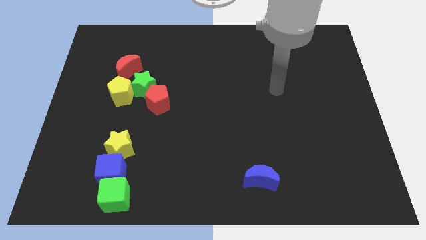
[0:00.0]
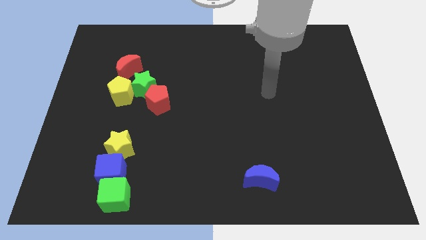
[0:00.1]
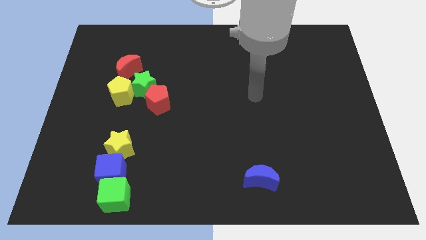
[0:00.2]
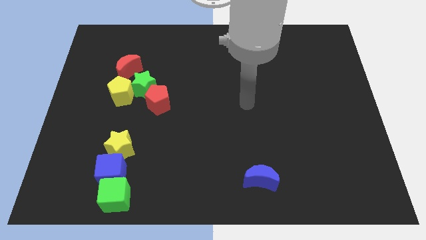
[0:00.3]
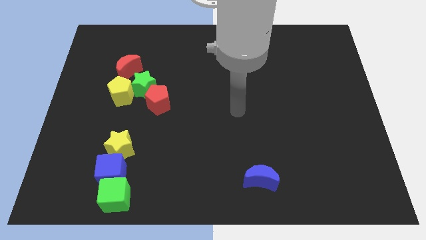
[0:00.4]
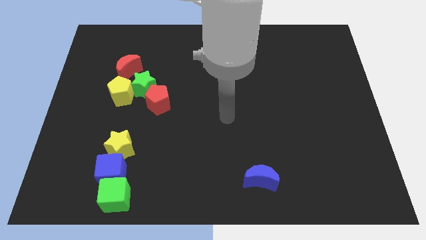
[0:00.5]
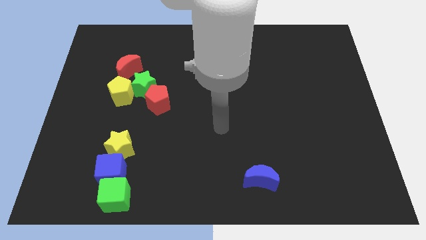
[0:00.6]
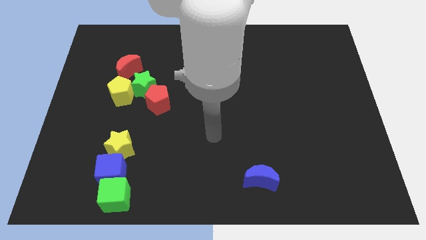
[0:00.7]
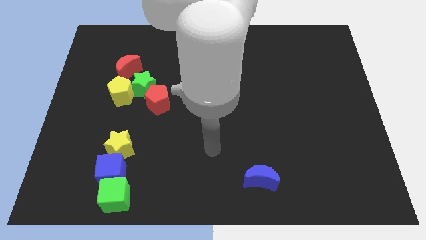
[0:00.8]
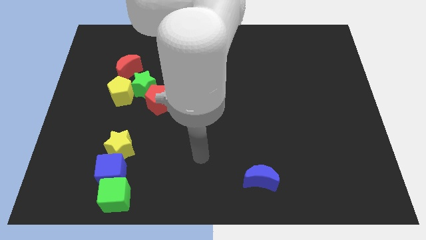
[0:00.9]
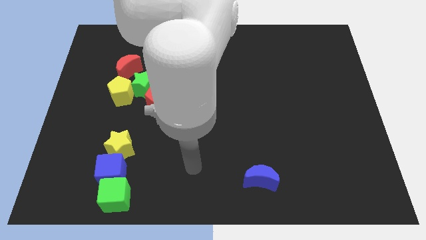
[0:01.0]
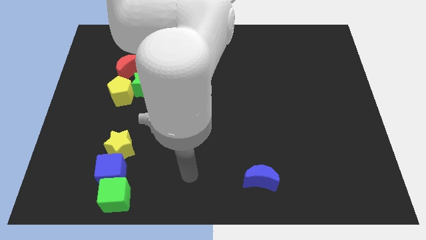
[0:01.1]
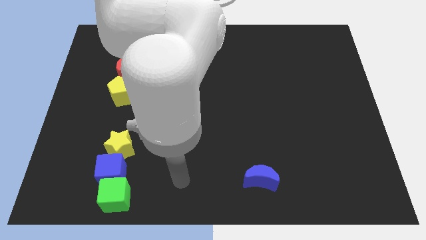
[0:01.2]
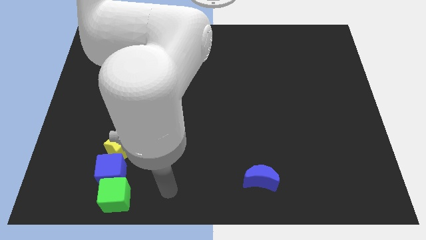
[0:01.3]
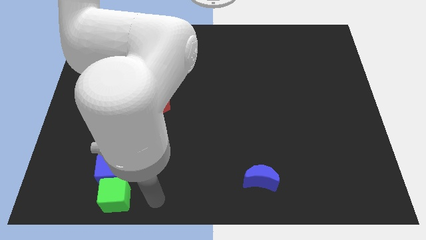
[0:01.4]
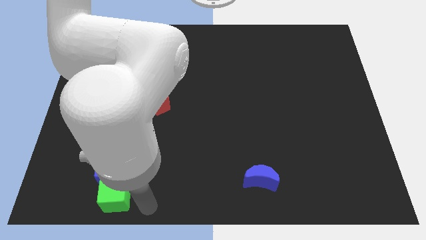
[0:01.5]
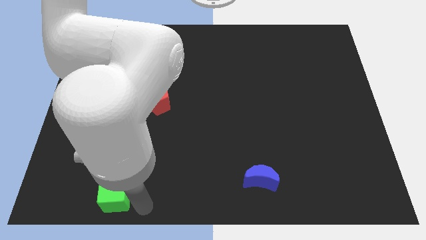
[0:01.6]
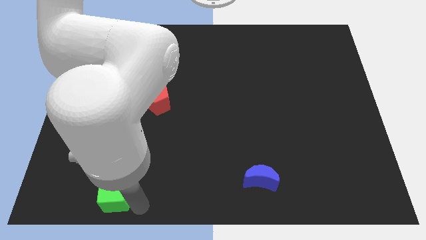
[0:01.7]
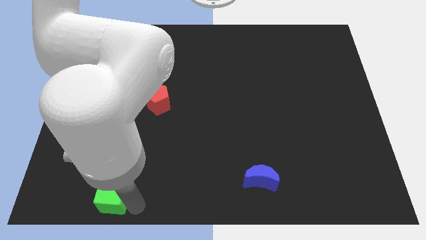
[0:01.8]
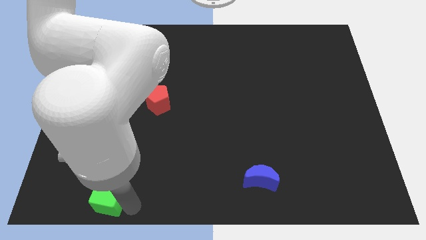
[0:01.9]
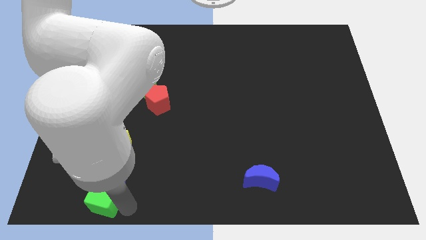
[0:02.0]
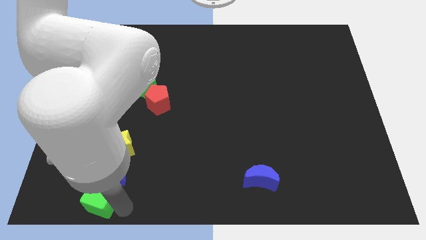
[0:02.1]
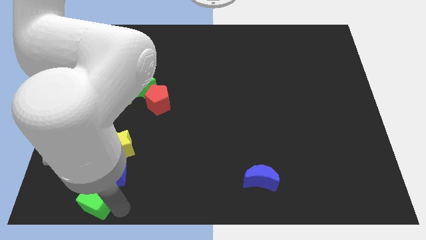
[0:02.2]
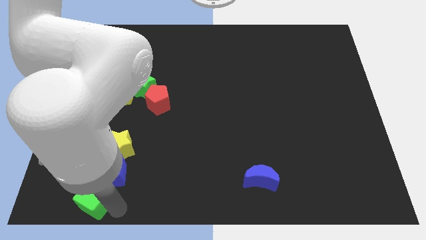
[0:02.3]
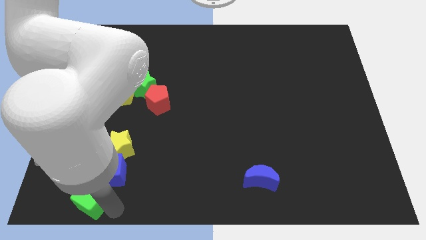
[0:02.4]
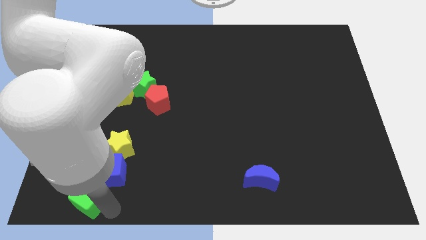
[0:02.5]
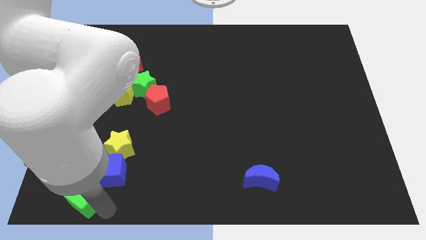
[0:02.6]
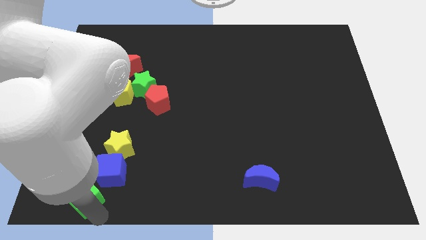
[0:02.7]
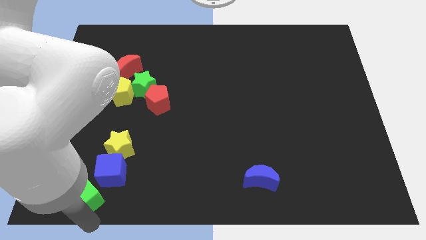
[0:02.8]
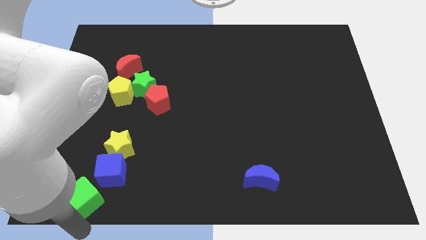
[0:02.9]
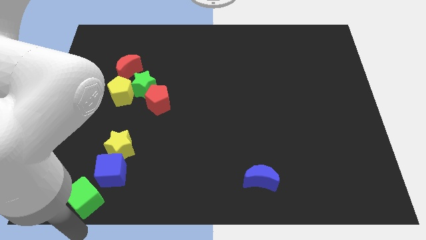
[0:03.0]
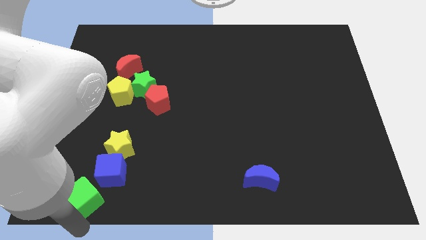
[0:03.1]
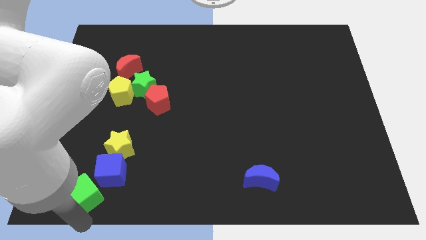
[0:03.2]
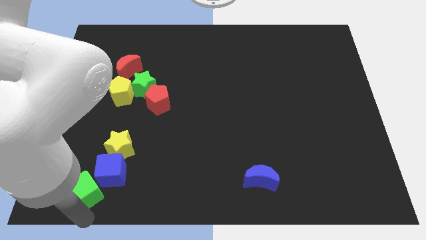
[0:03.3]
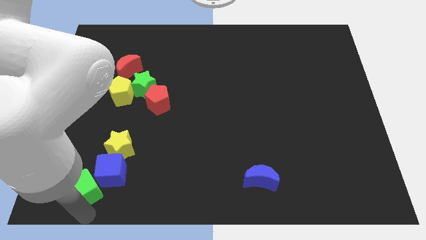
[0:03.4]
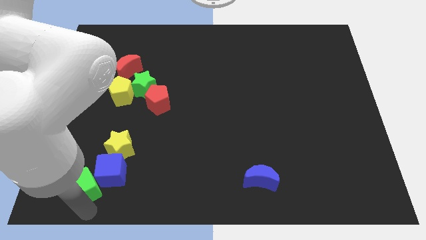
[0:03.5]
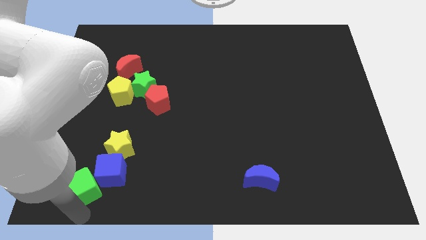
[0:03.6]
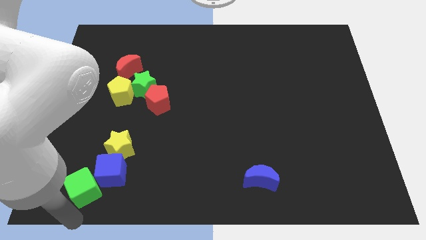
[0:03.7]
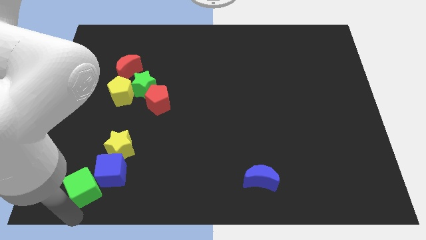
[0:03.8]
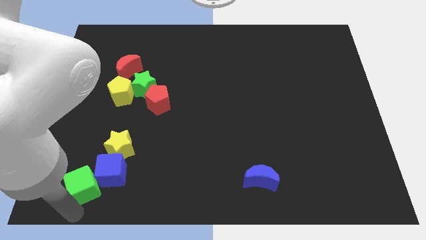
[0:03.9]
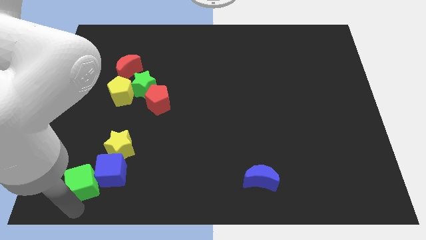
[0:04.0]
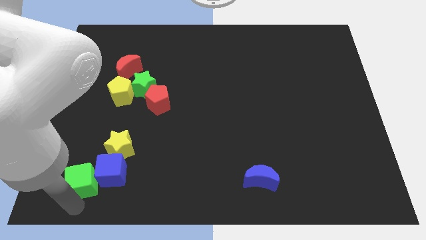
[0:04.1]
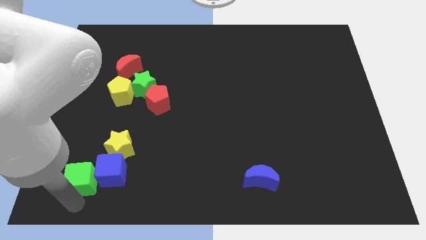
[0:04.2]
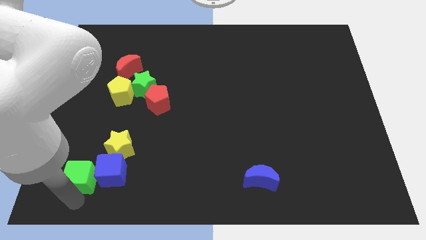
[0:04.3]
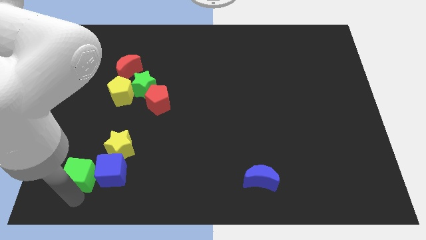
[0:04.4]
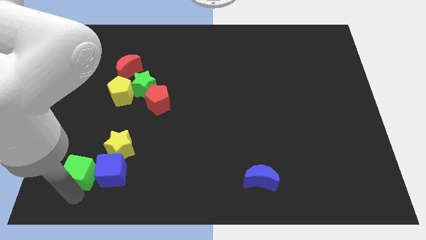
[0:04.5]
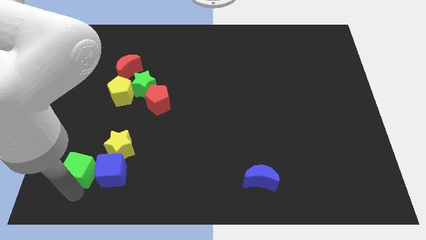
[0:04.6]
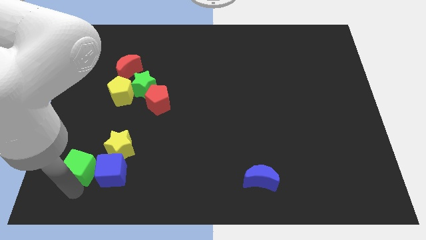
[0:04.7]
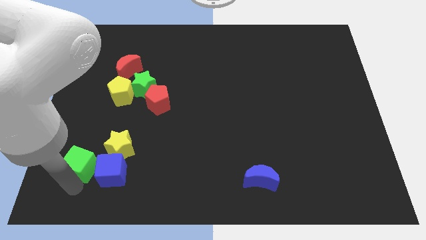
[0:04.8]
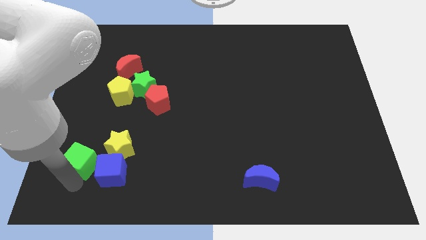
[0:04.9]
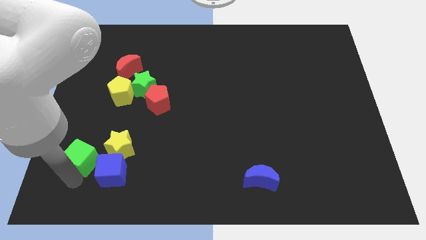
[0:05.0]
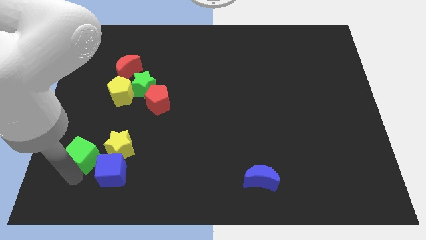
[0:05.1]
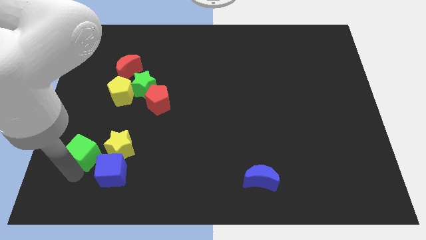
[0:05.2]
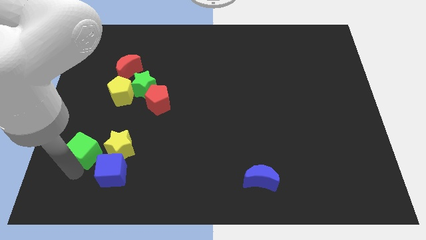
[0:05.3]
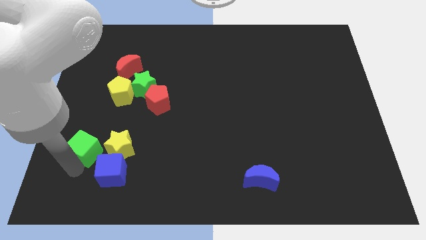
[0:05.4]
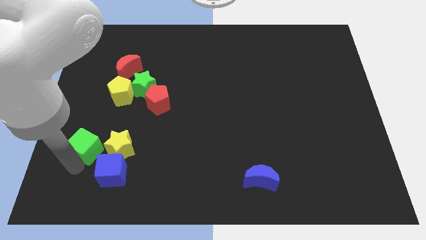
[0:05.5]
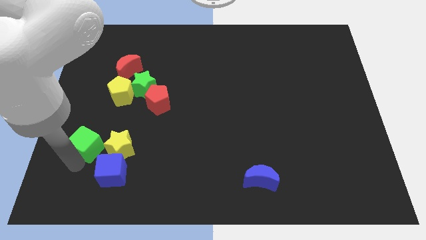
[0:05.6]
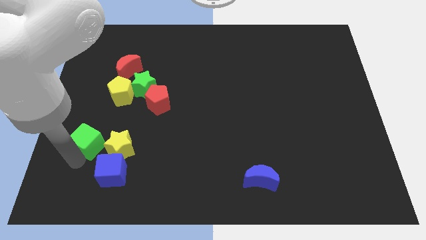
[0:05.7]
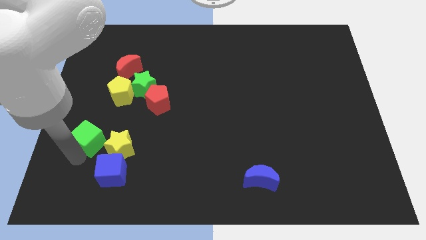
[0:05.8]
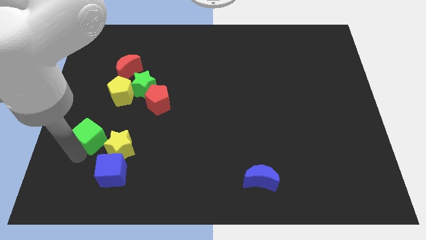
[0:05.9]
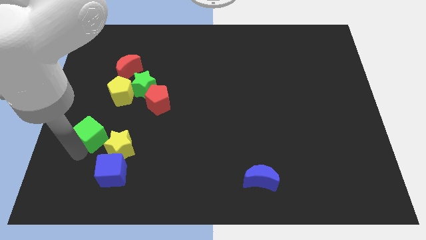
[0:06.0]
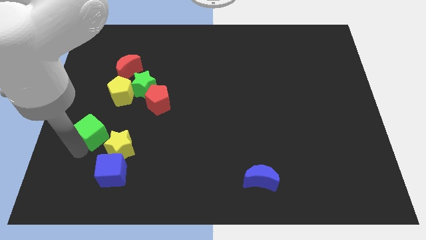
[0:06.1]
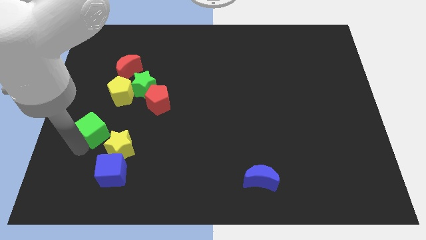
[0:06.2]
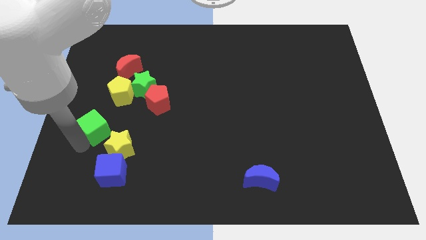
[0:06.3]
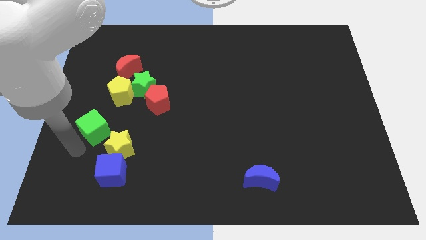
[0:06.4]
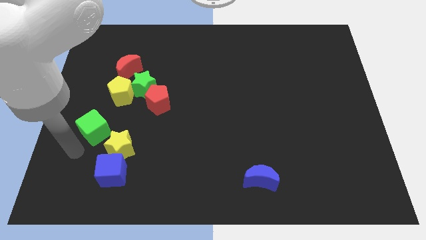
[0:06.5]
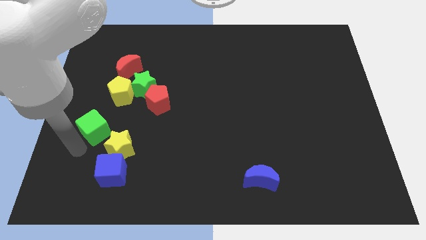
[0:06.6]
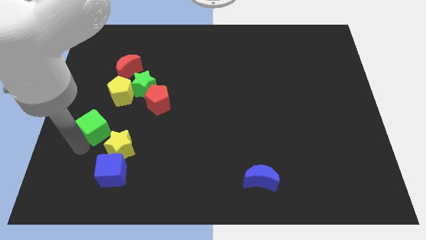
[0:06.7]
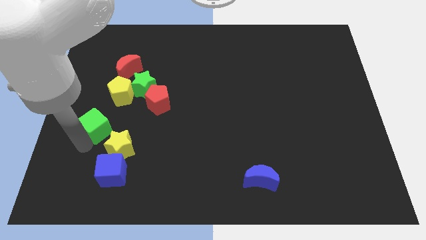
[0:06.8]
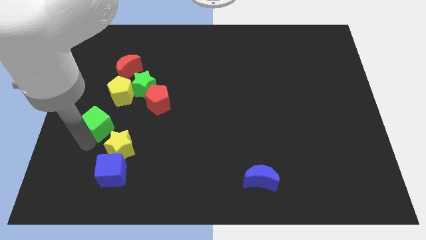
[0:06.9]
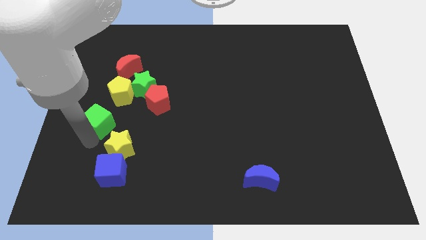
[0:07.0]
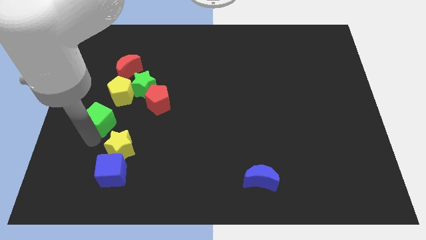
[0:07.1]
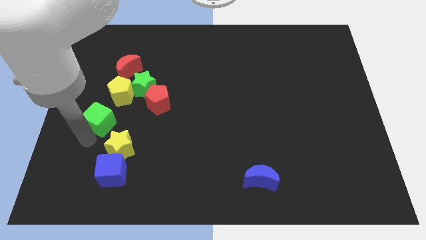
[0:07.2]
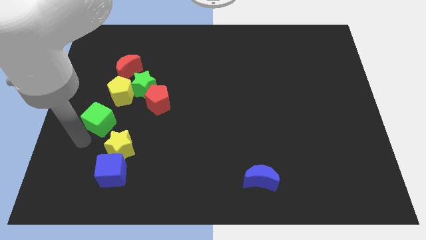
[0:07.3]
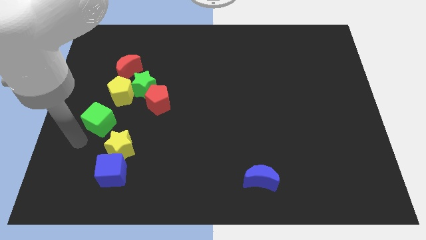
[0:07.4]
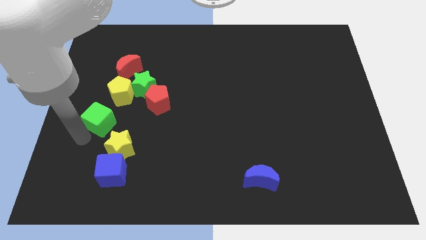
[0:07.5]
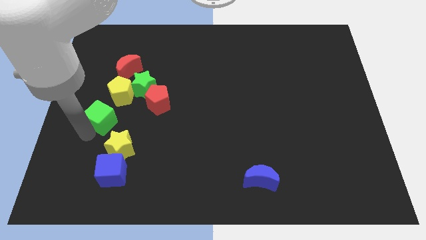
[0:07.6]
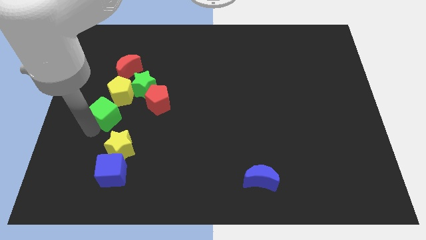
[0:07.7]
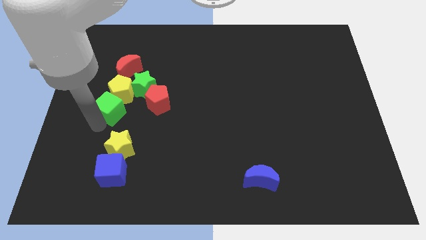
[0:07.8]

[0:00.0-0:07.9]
slide the green cube to the yellow pentagon
